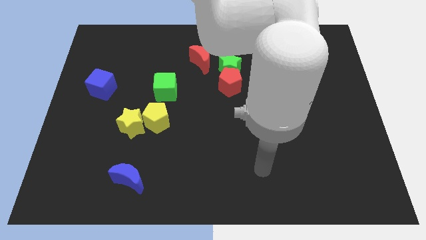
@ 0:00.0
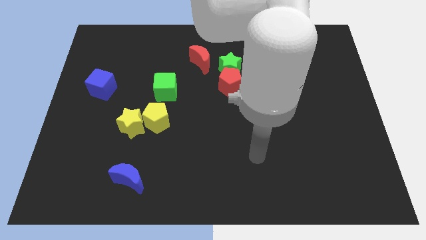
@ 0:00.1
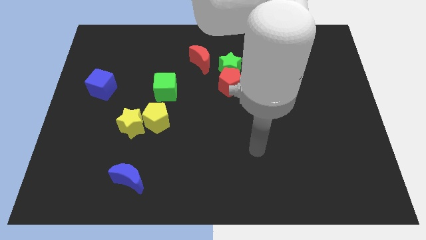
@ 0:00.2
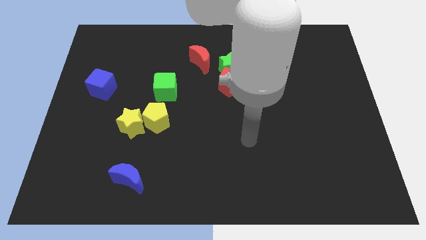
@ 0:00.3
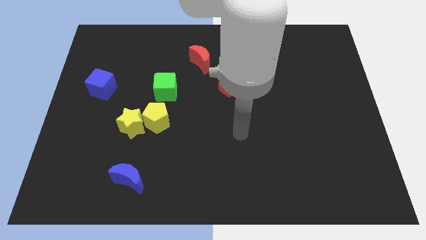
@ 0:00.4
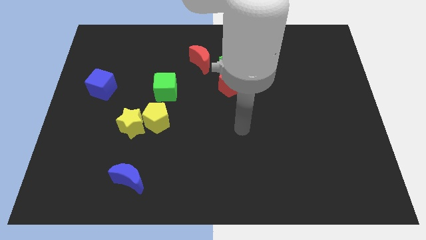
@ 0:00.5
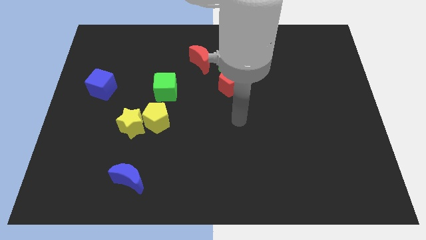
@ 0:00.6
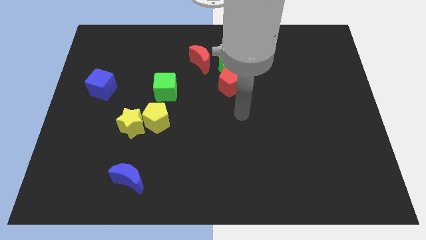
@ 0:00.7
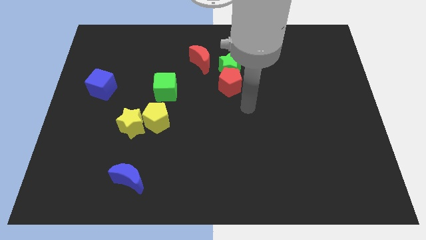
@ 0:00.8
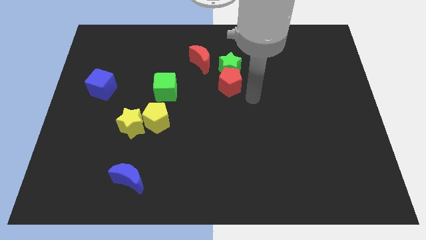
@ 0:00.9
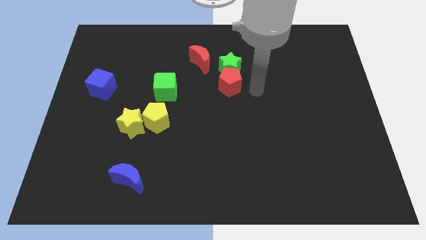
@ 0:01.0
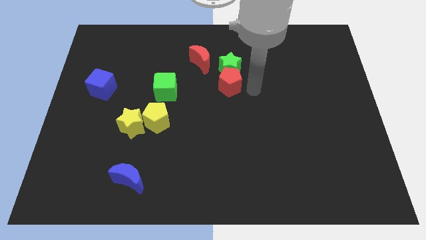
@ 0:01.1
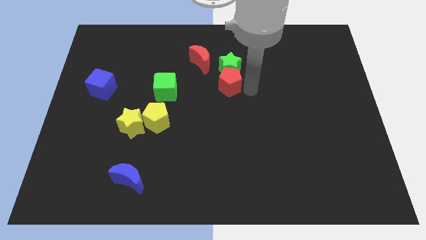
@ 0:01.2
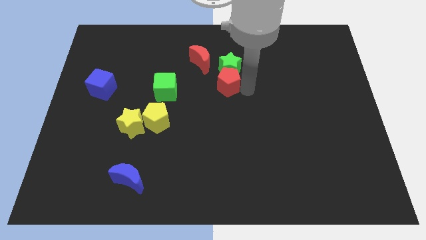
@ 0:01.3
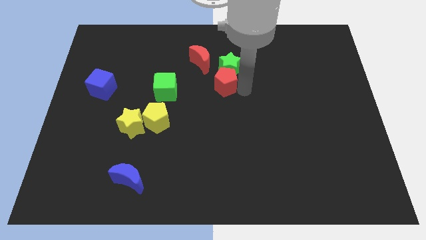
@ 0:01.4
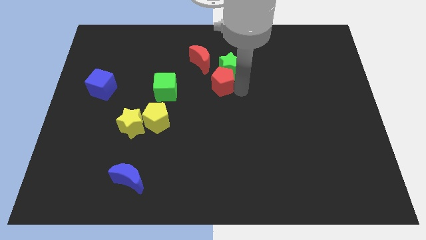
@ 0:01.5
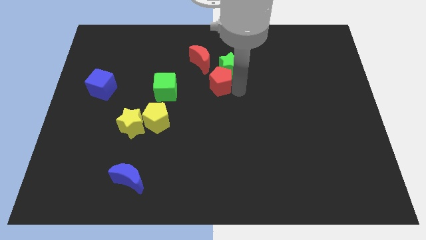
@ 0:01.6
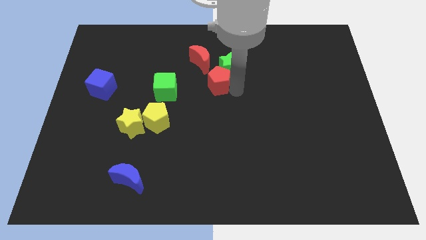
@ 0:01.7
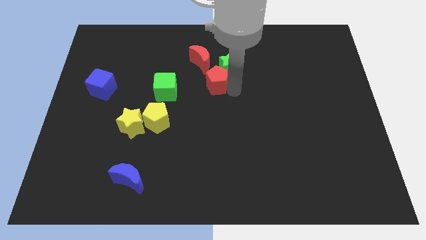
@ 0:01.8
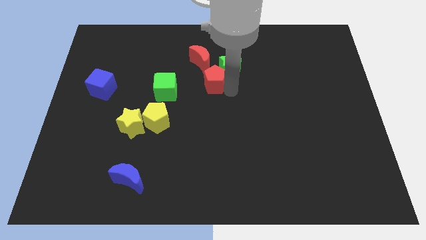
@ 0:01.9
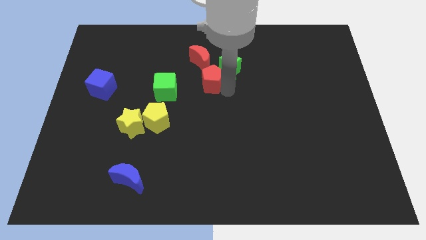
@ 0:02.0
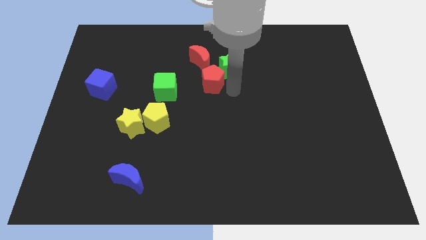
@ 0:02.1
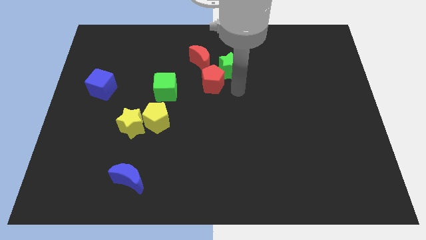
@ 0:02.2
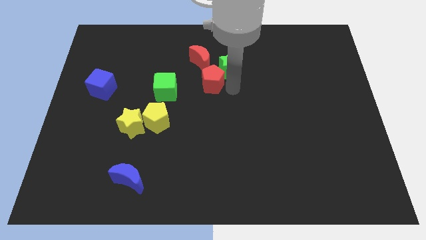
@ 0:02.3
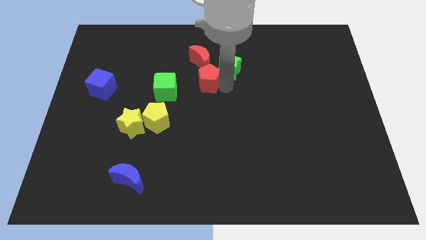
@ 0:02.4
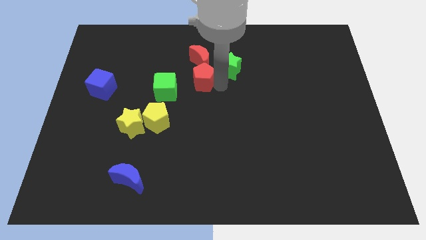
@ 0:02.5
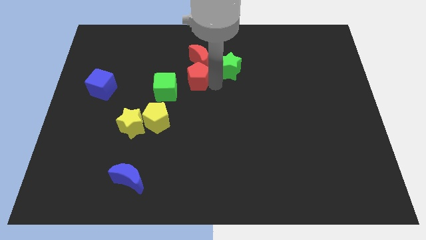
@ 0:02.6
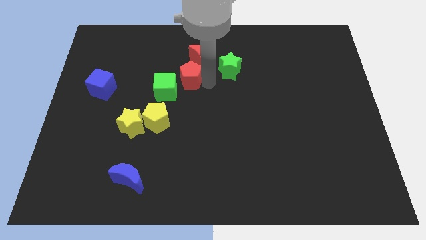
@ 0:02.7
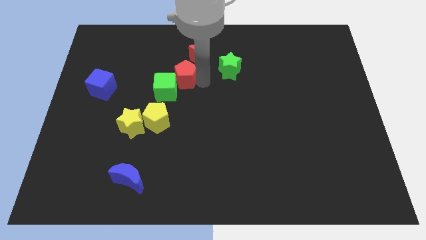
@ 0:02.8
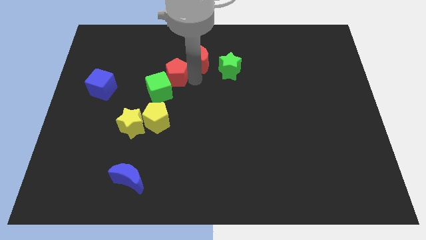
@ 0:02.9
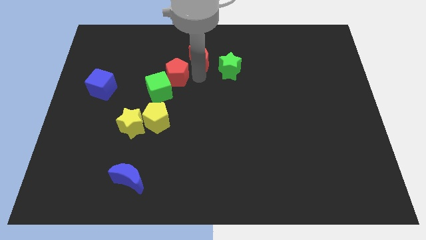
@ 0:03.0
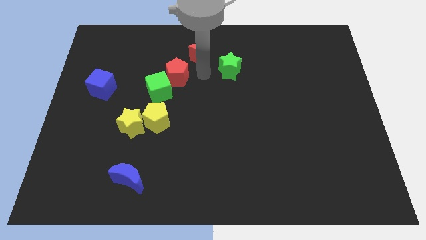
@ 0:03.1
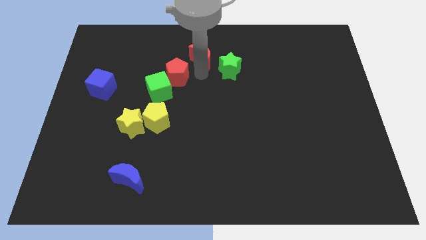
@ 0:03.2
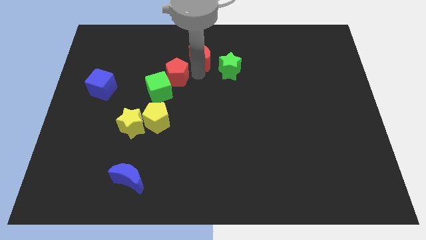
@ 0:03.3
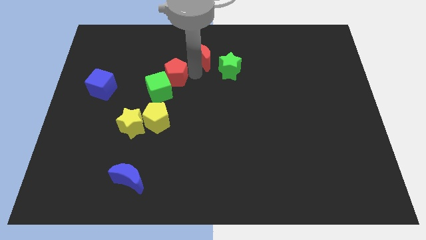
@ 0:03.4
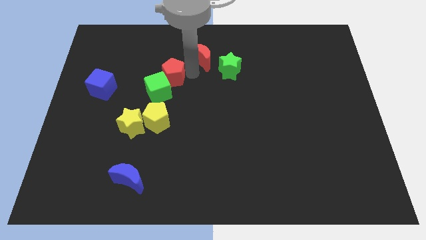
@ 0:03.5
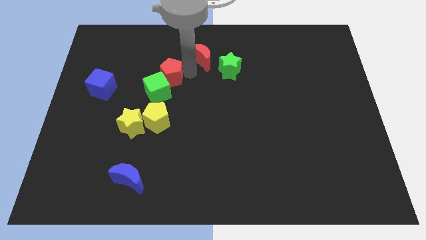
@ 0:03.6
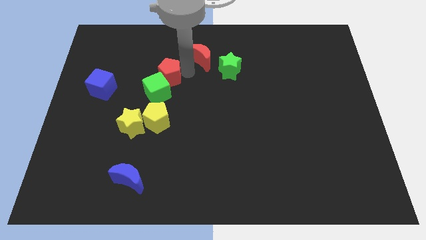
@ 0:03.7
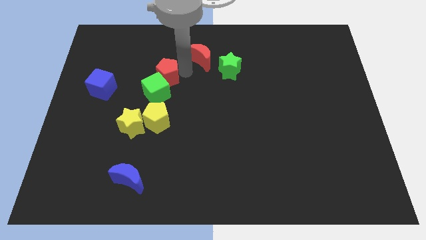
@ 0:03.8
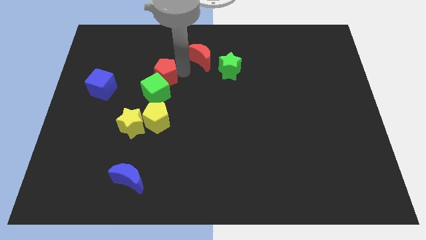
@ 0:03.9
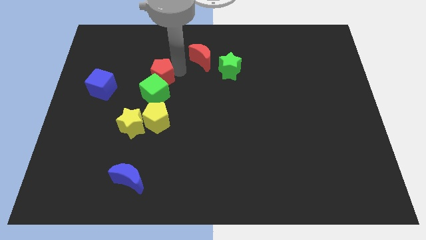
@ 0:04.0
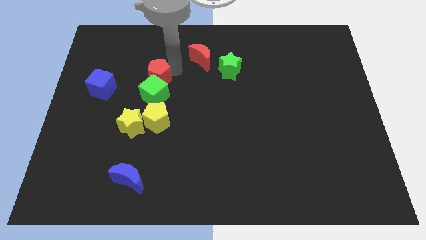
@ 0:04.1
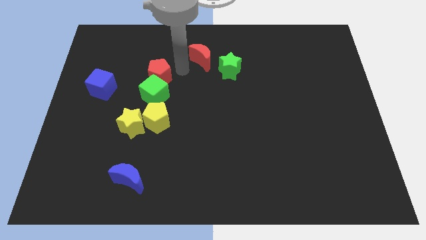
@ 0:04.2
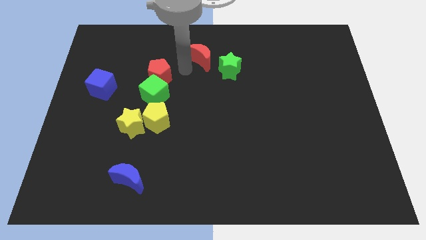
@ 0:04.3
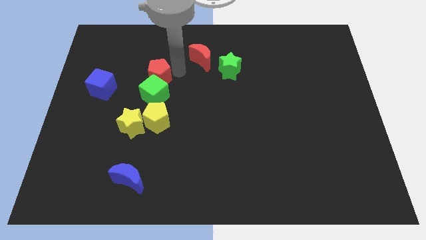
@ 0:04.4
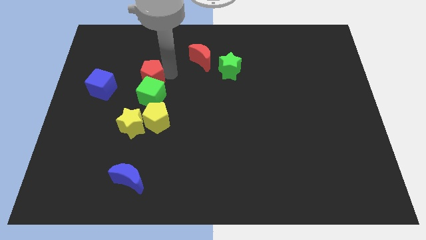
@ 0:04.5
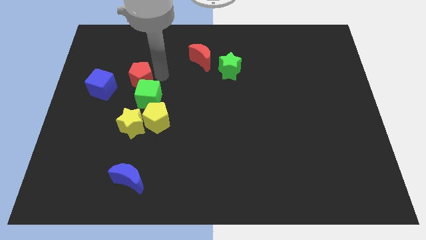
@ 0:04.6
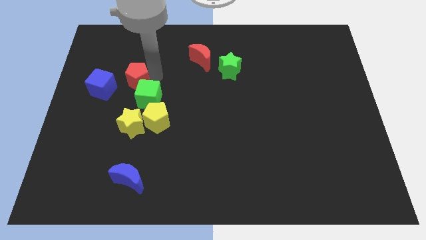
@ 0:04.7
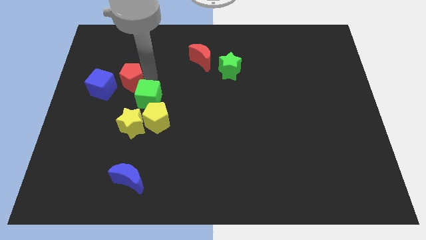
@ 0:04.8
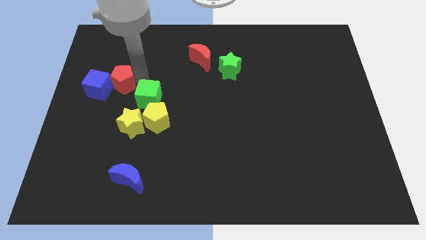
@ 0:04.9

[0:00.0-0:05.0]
slide the red pentagon next to the blue cube

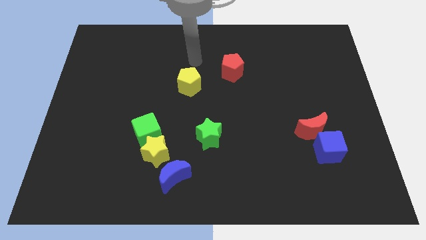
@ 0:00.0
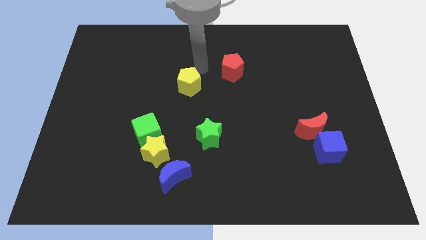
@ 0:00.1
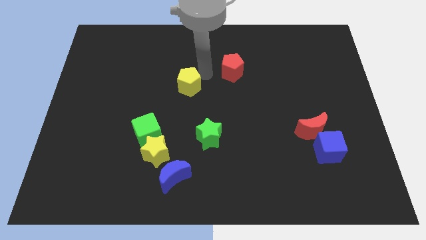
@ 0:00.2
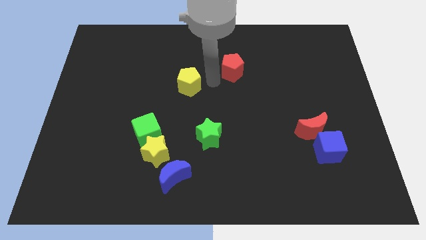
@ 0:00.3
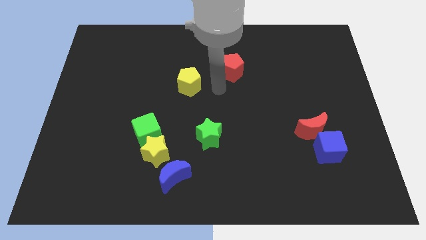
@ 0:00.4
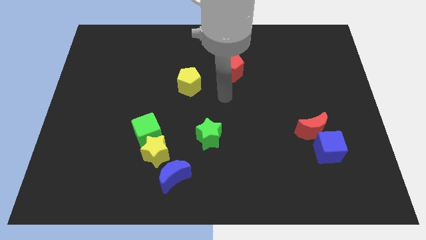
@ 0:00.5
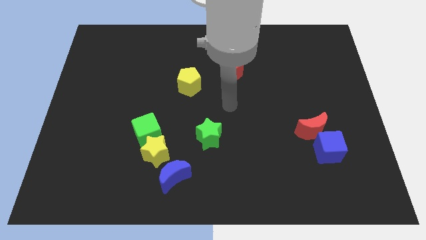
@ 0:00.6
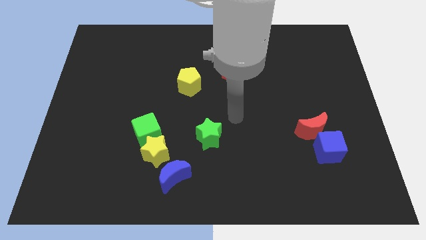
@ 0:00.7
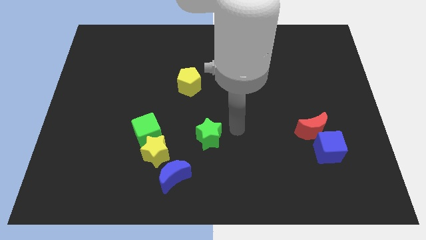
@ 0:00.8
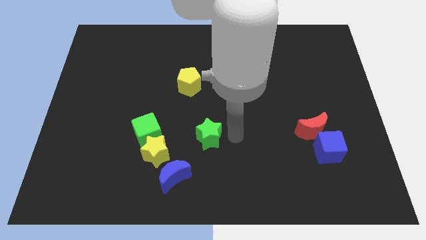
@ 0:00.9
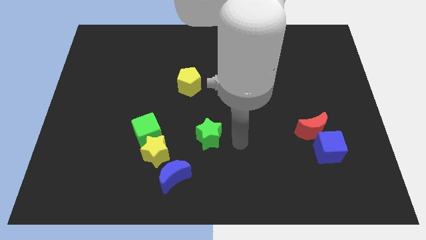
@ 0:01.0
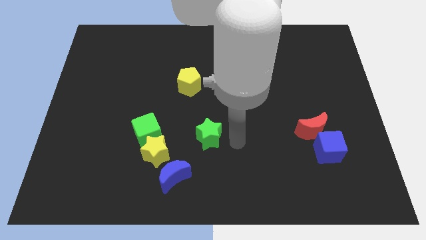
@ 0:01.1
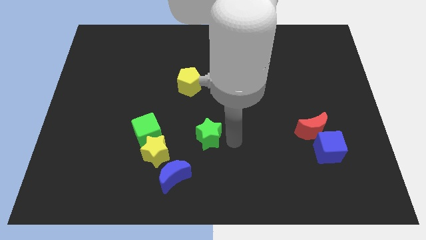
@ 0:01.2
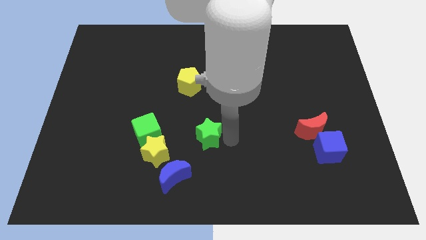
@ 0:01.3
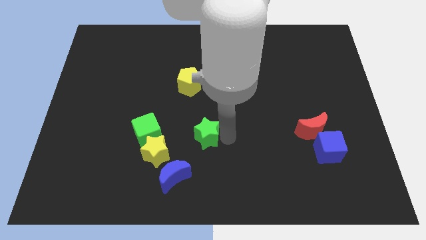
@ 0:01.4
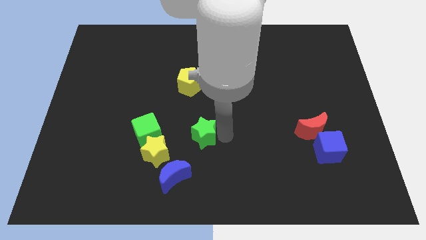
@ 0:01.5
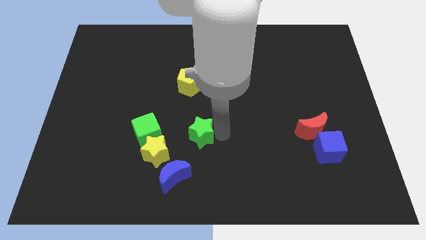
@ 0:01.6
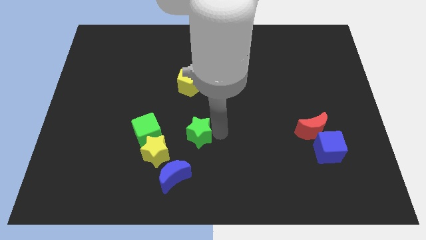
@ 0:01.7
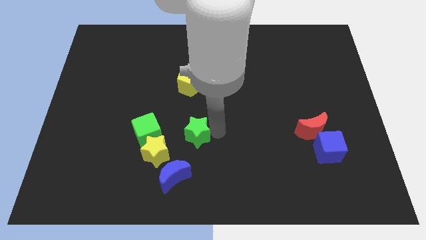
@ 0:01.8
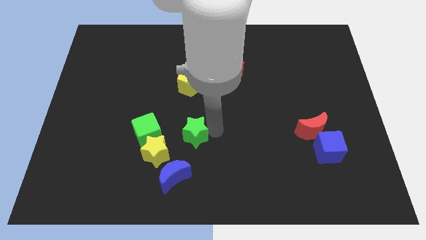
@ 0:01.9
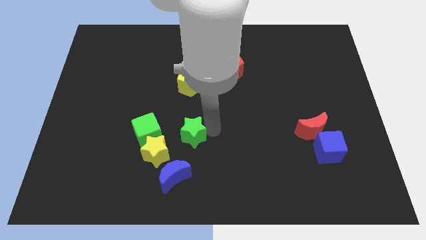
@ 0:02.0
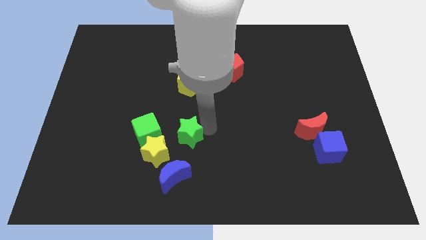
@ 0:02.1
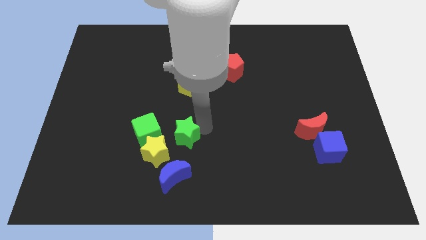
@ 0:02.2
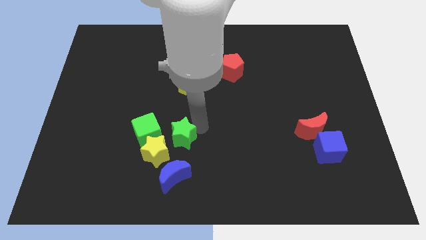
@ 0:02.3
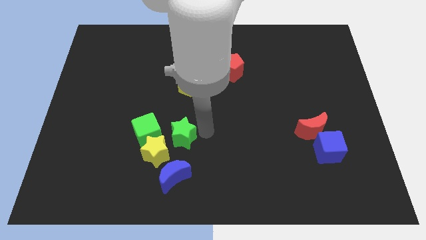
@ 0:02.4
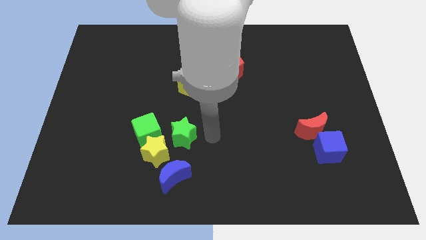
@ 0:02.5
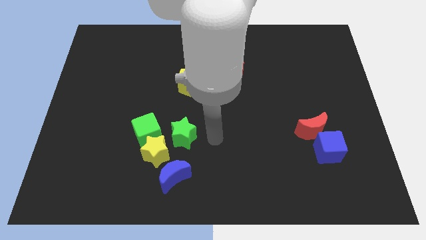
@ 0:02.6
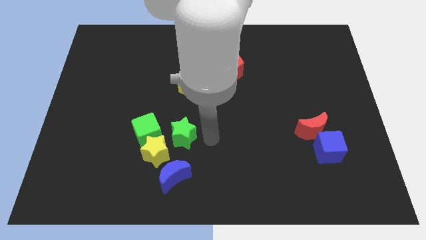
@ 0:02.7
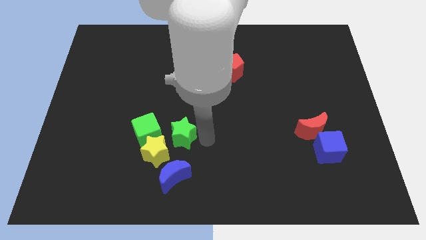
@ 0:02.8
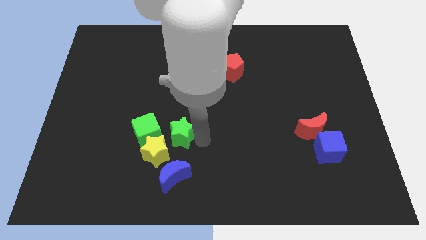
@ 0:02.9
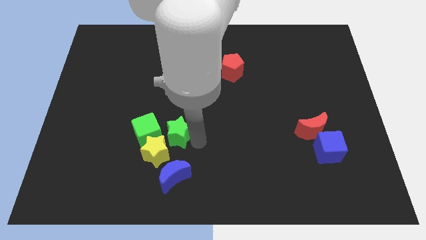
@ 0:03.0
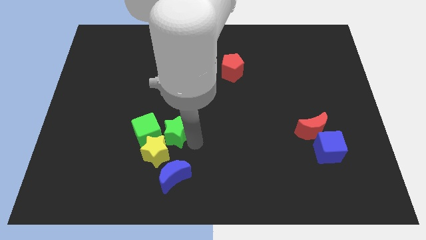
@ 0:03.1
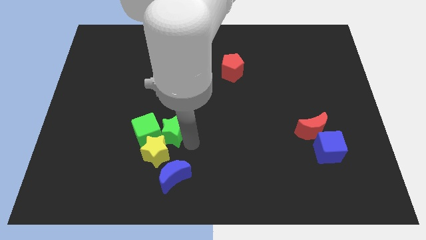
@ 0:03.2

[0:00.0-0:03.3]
slide the green star to the green cube
